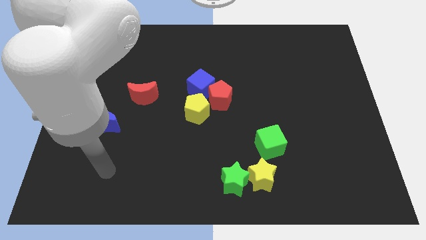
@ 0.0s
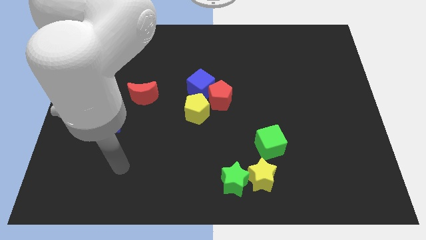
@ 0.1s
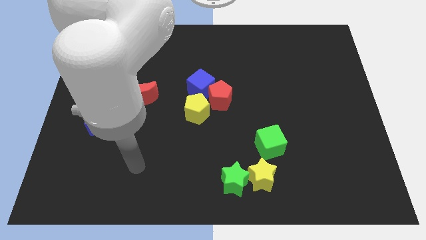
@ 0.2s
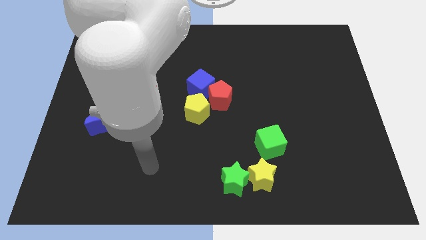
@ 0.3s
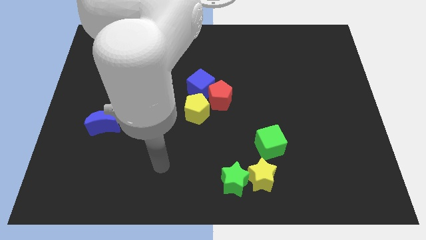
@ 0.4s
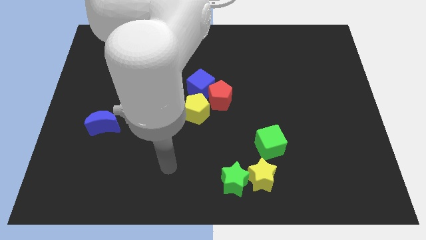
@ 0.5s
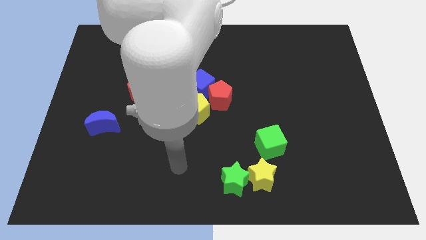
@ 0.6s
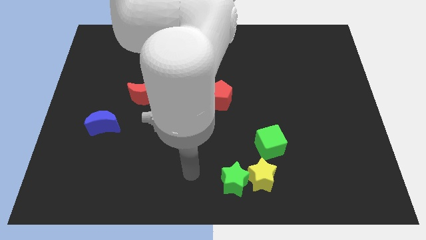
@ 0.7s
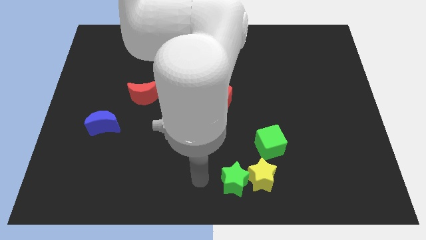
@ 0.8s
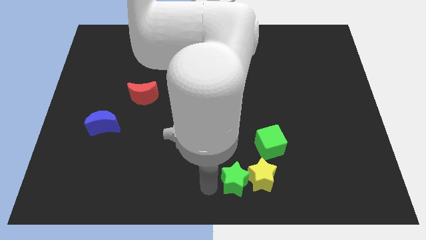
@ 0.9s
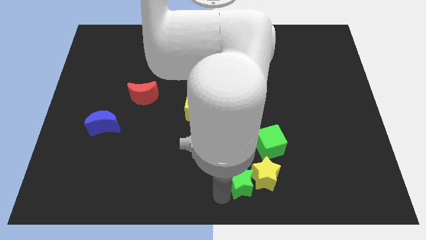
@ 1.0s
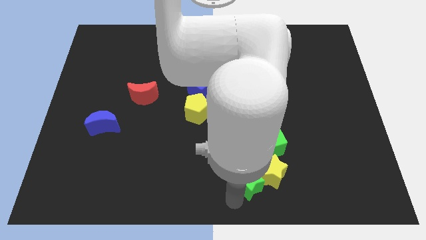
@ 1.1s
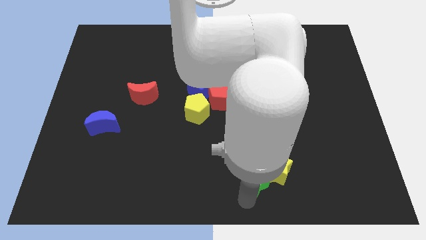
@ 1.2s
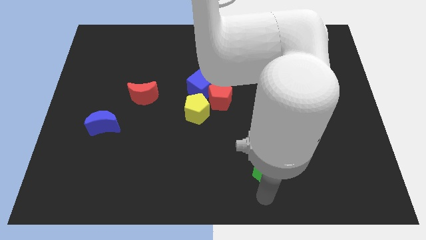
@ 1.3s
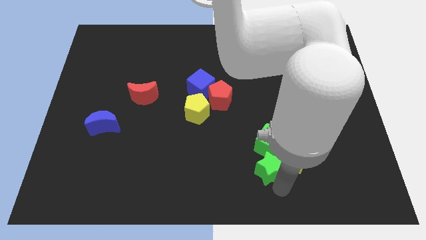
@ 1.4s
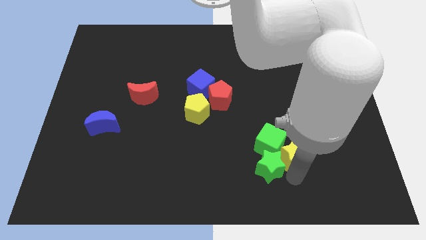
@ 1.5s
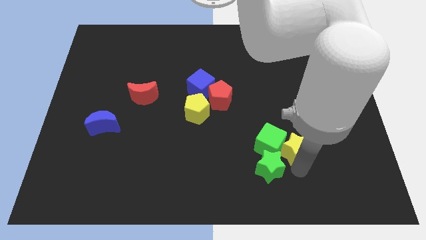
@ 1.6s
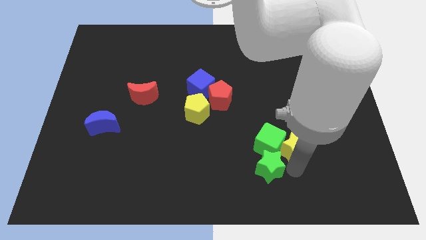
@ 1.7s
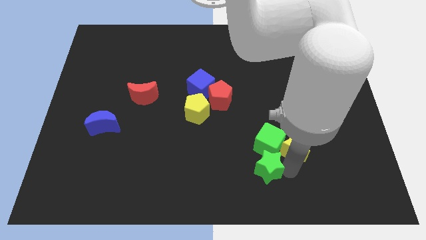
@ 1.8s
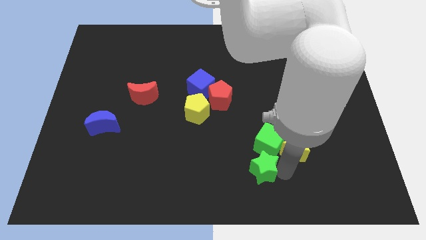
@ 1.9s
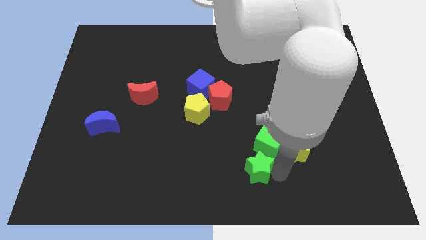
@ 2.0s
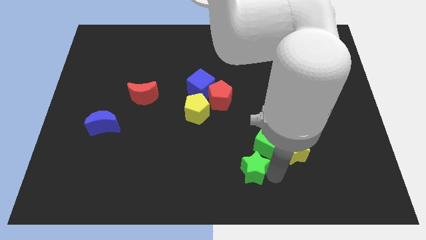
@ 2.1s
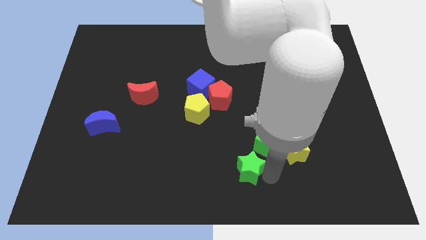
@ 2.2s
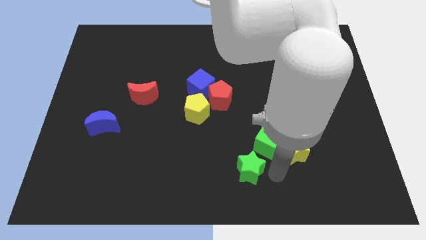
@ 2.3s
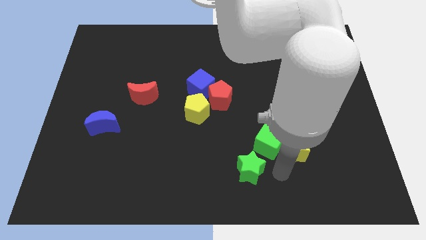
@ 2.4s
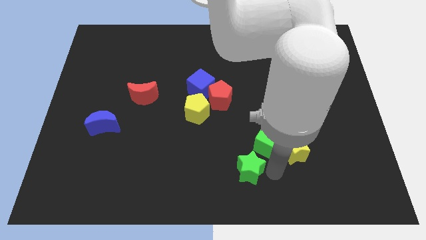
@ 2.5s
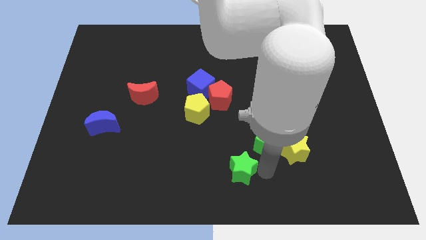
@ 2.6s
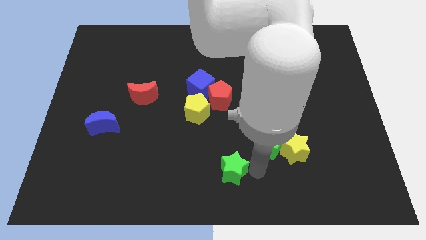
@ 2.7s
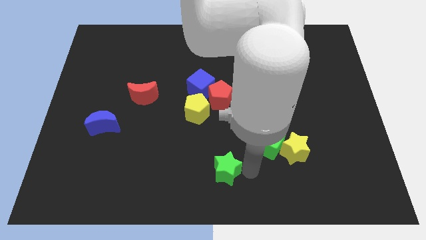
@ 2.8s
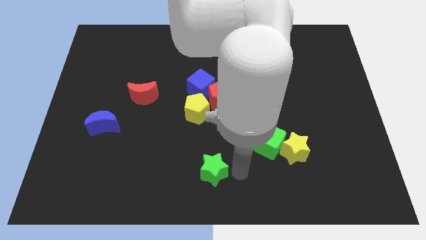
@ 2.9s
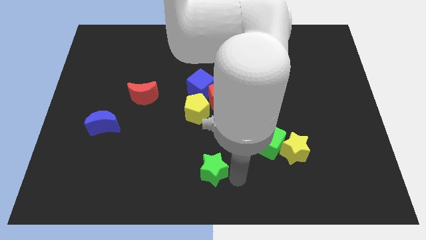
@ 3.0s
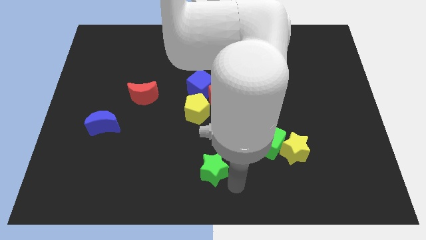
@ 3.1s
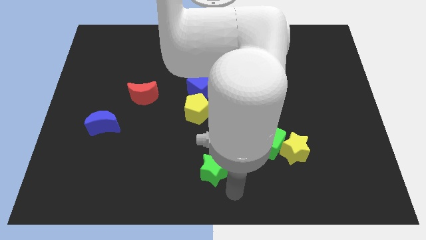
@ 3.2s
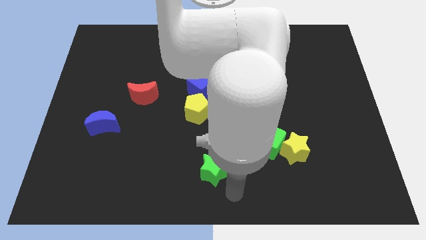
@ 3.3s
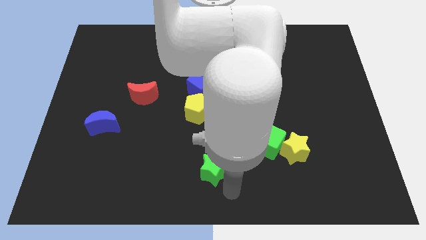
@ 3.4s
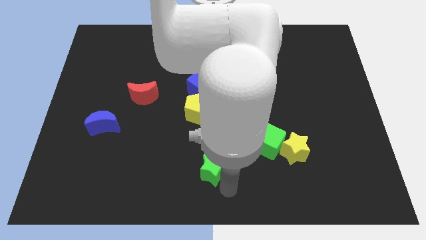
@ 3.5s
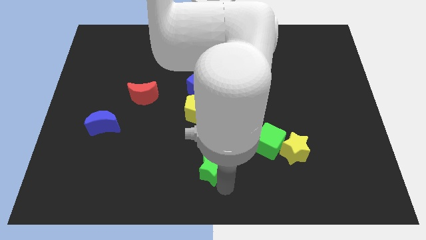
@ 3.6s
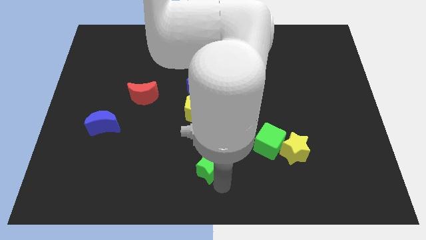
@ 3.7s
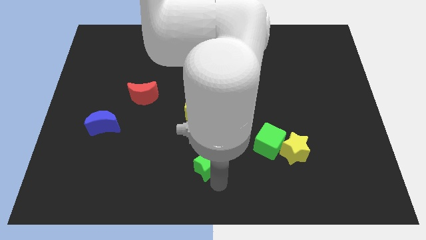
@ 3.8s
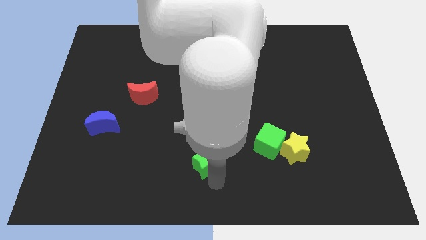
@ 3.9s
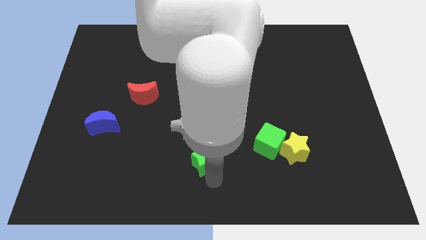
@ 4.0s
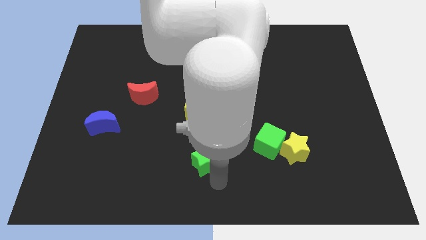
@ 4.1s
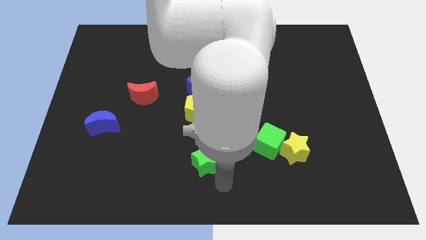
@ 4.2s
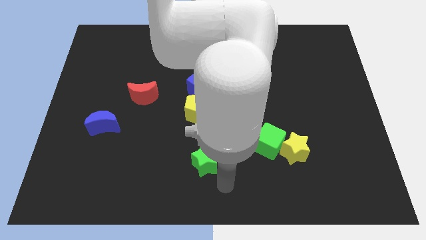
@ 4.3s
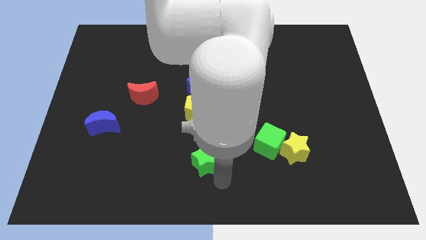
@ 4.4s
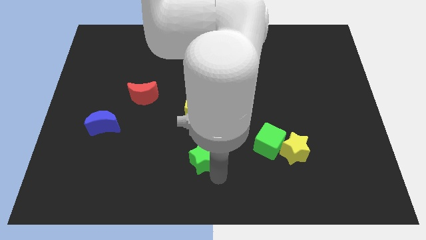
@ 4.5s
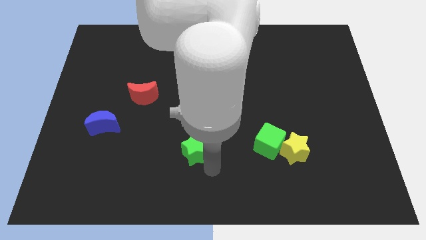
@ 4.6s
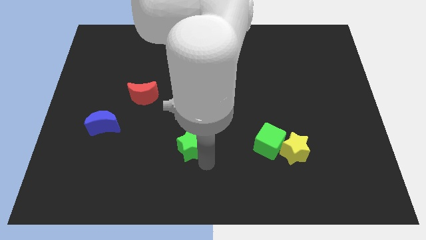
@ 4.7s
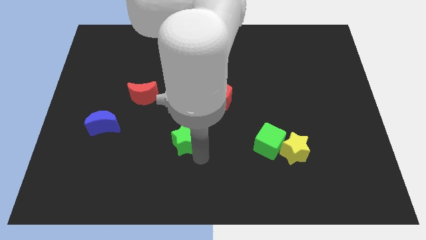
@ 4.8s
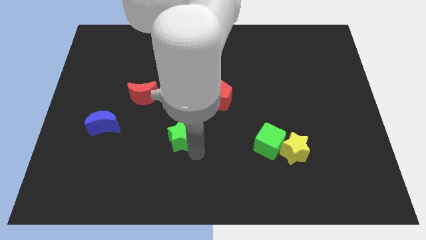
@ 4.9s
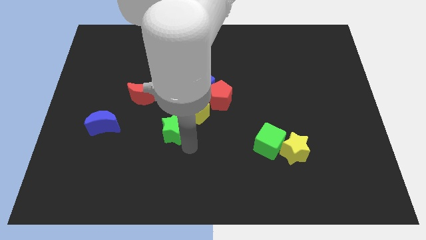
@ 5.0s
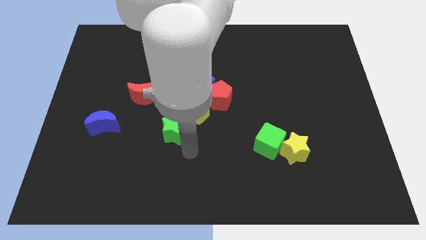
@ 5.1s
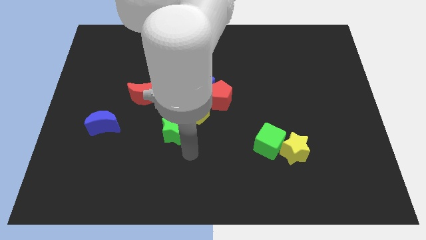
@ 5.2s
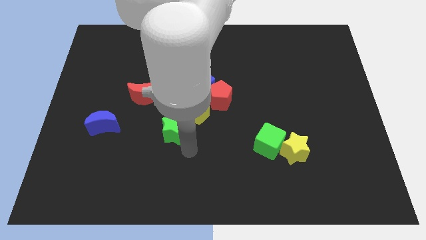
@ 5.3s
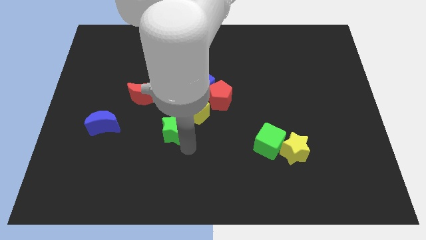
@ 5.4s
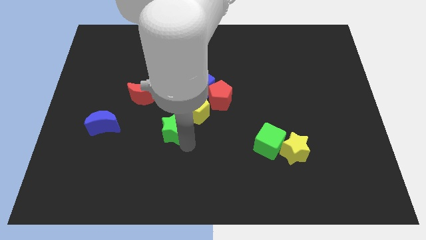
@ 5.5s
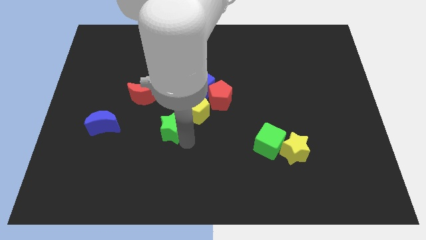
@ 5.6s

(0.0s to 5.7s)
put the green star to the bottom right side of the red moon

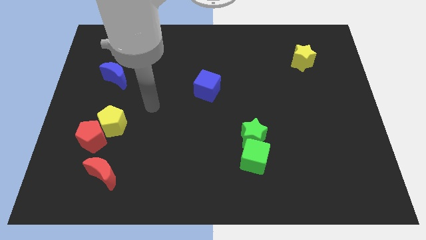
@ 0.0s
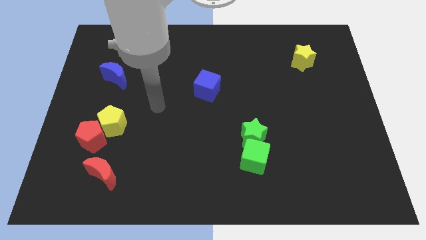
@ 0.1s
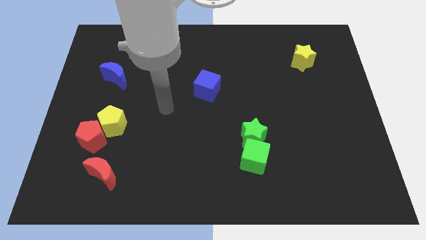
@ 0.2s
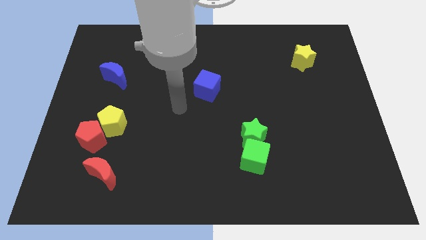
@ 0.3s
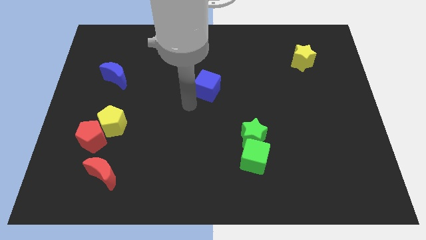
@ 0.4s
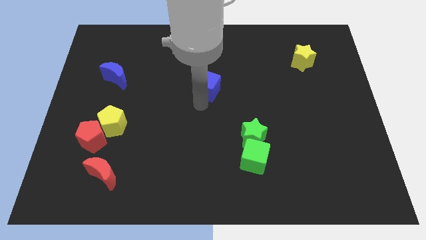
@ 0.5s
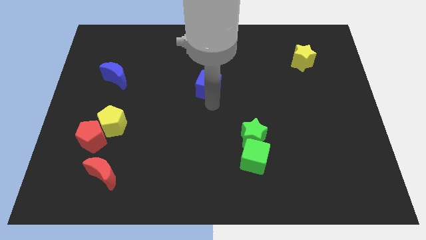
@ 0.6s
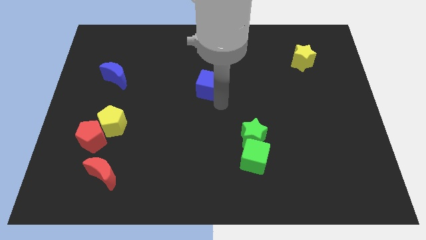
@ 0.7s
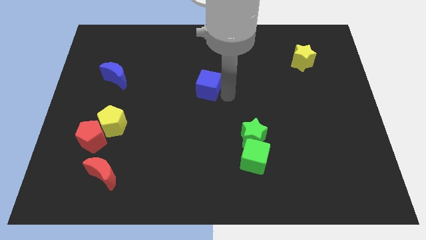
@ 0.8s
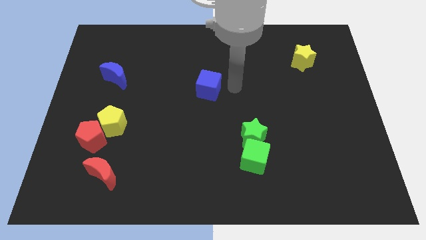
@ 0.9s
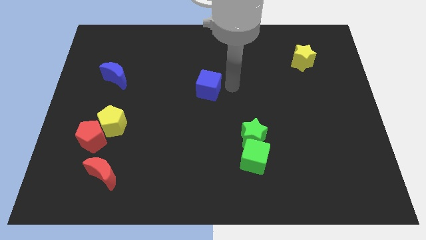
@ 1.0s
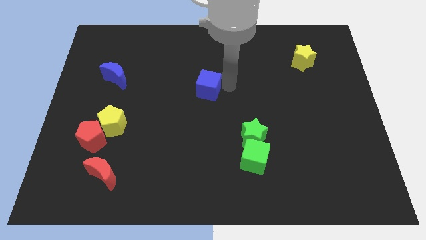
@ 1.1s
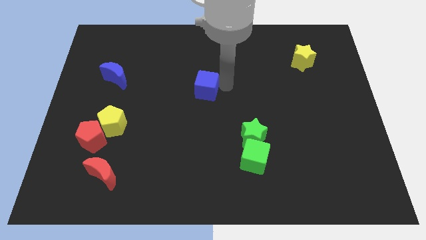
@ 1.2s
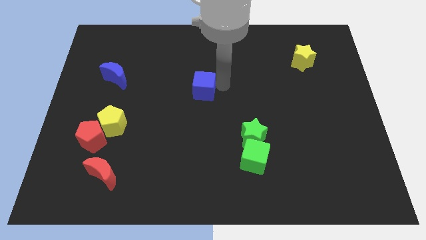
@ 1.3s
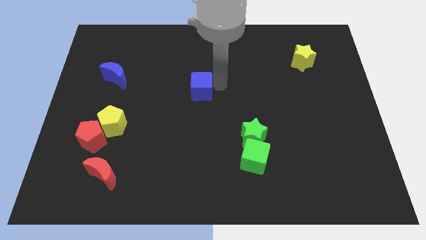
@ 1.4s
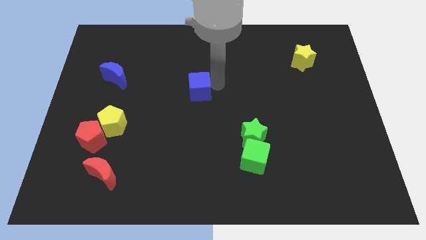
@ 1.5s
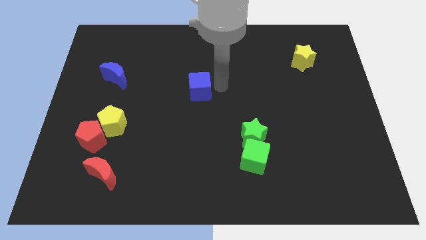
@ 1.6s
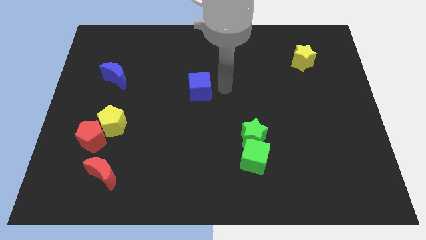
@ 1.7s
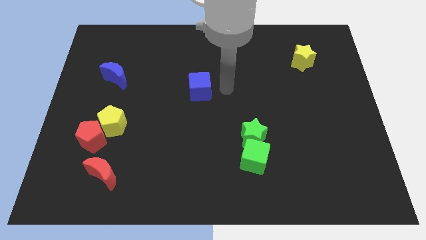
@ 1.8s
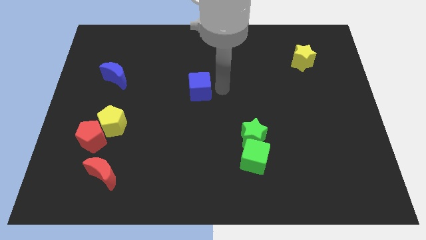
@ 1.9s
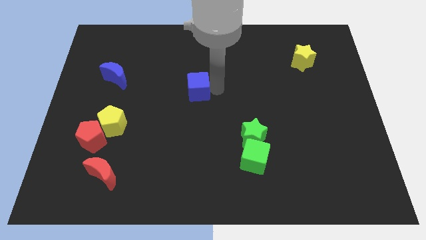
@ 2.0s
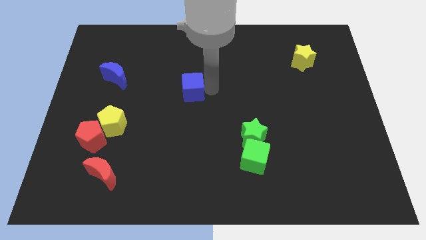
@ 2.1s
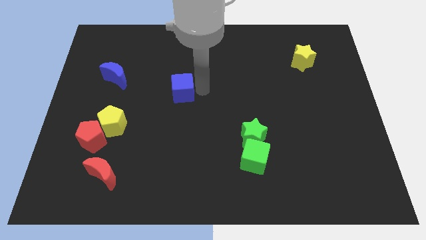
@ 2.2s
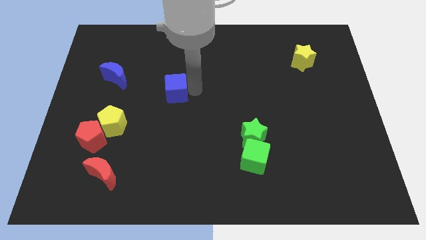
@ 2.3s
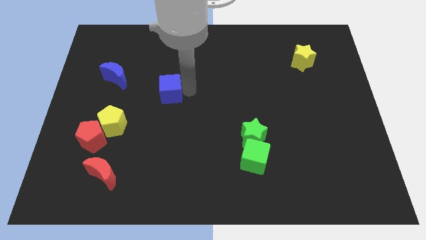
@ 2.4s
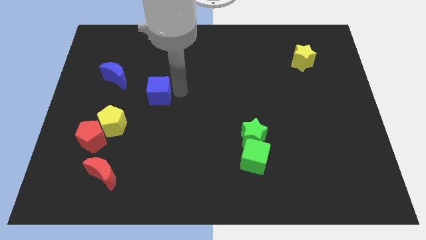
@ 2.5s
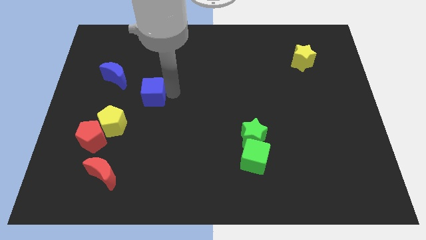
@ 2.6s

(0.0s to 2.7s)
slide the blue cube to the bottom right of the blue moon
